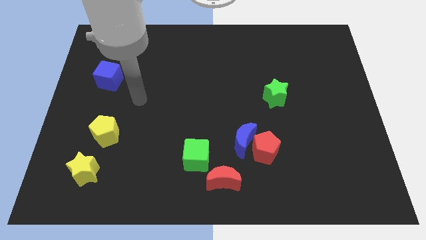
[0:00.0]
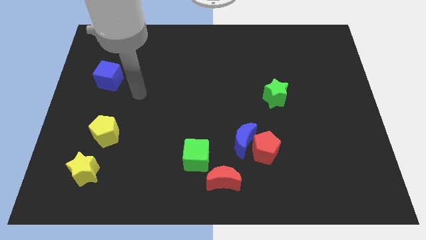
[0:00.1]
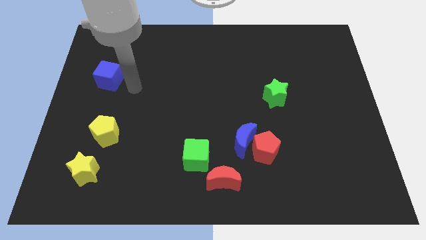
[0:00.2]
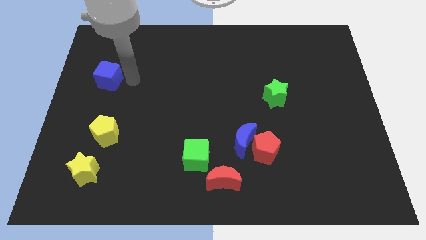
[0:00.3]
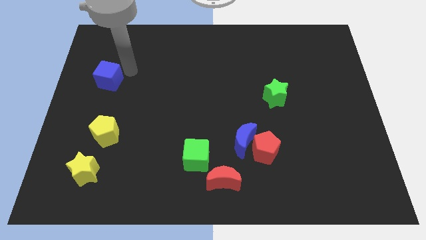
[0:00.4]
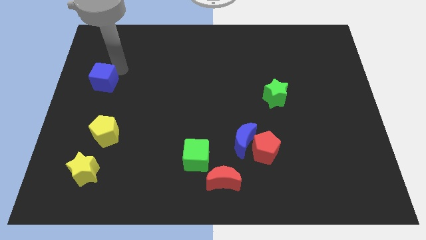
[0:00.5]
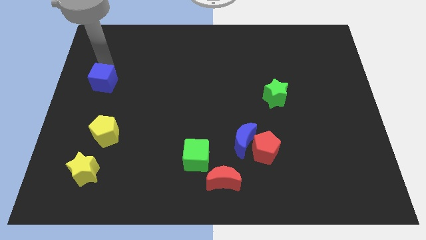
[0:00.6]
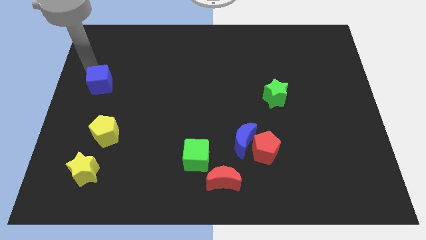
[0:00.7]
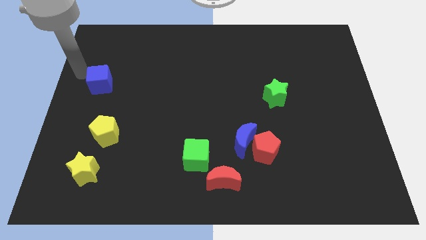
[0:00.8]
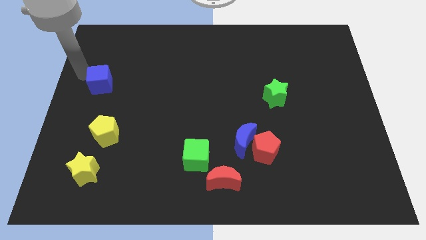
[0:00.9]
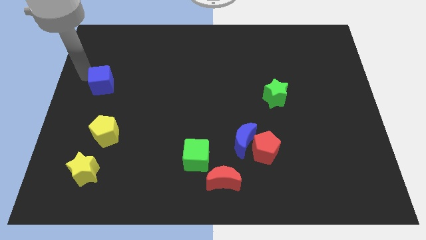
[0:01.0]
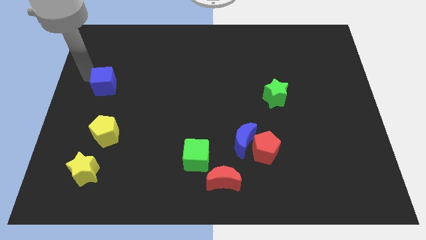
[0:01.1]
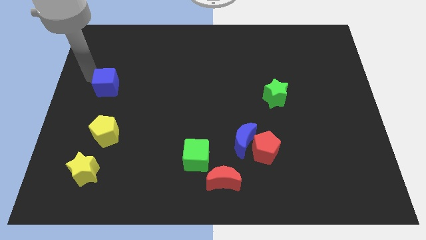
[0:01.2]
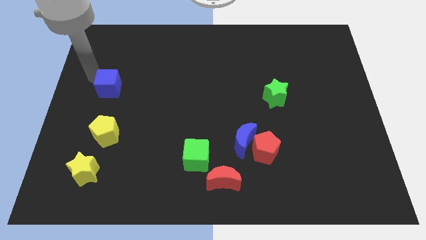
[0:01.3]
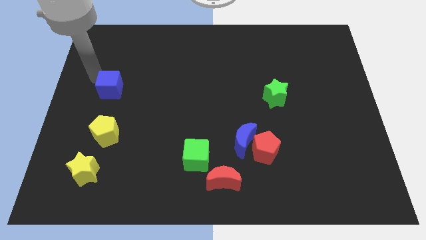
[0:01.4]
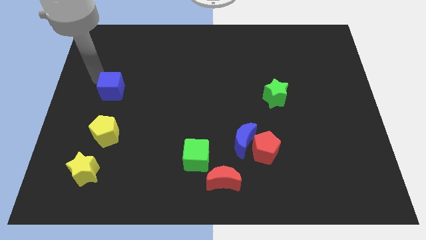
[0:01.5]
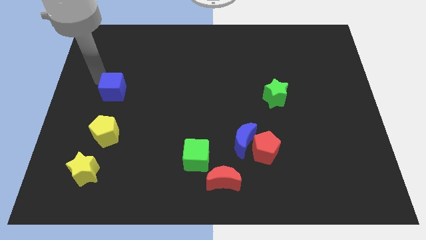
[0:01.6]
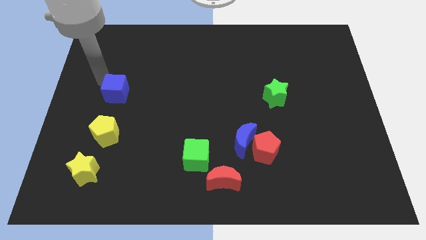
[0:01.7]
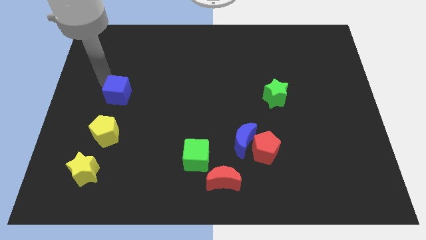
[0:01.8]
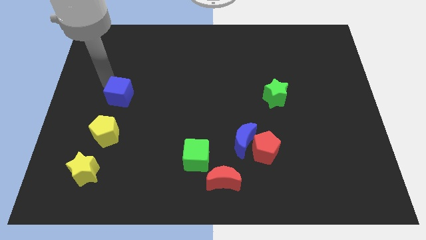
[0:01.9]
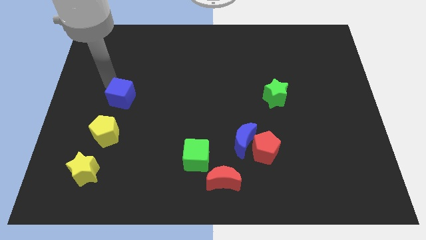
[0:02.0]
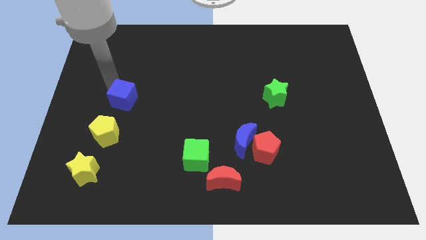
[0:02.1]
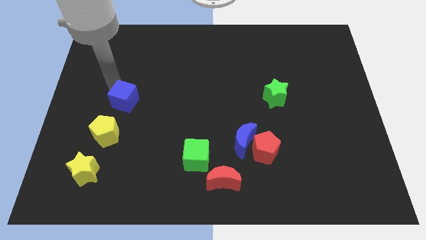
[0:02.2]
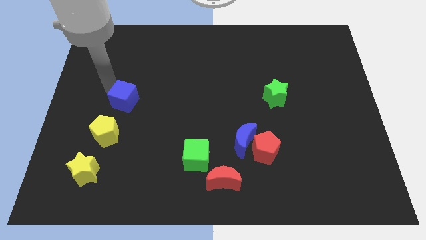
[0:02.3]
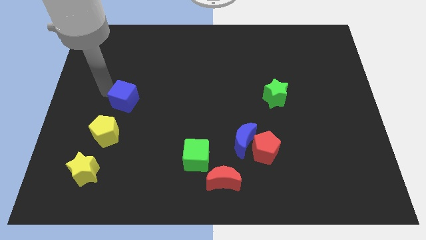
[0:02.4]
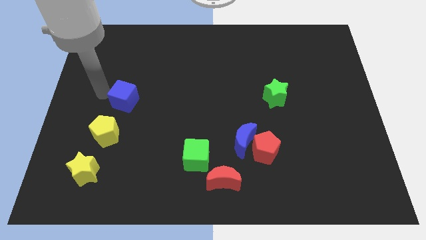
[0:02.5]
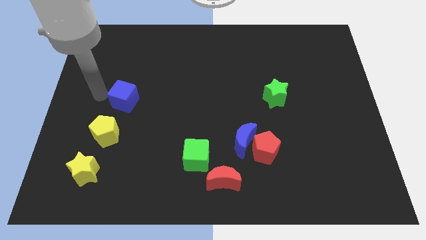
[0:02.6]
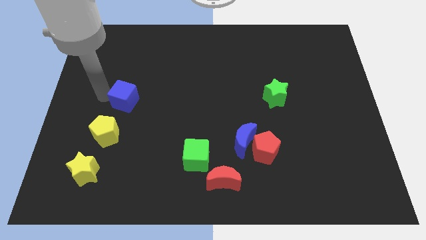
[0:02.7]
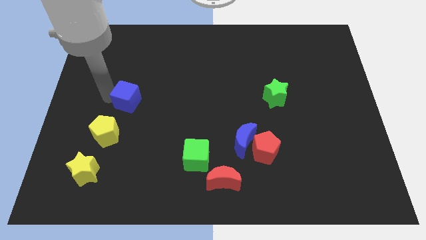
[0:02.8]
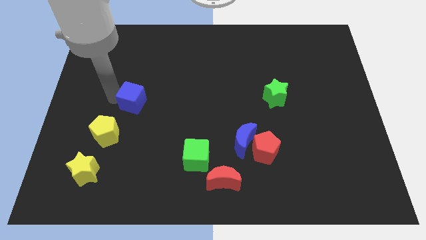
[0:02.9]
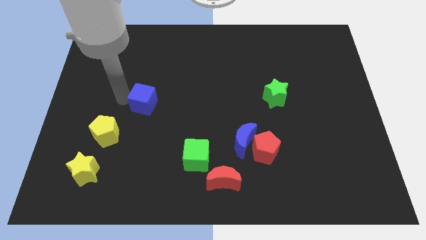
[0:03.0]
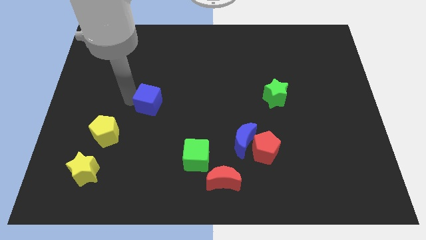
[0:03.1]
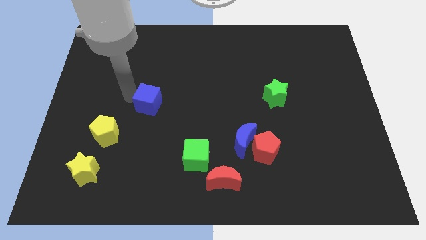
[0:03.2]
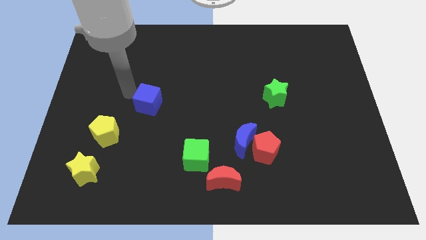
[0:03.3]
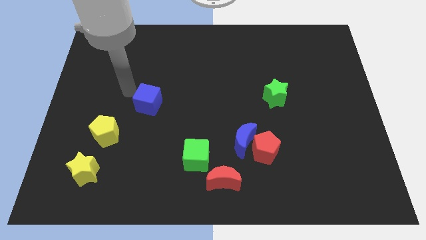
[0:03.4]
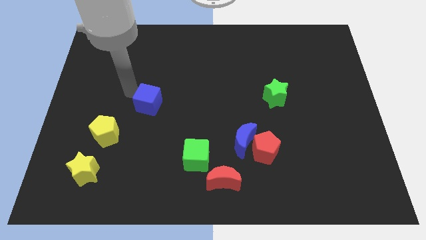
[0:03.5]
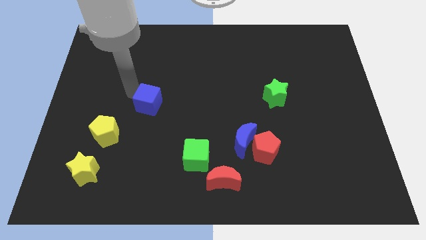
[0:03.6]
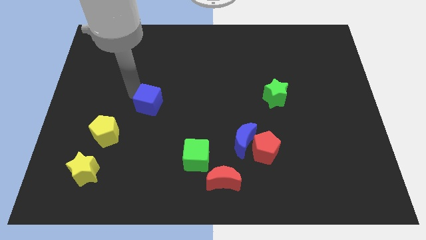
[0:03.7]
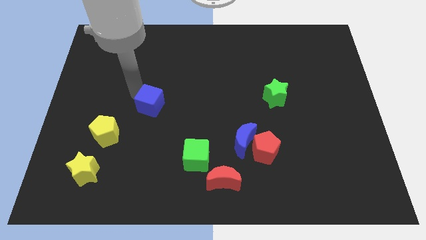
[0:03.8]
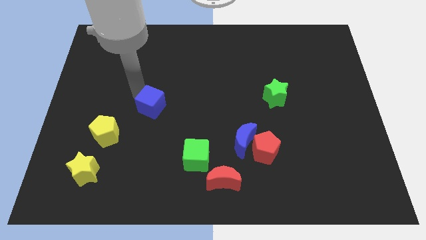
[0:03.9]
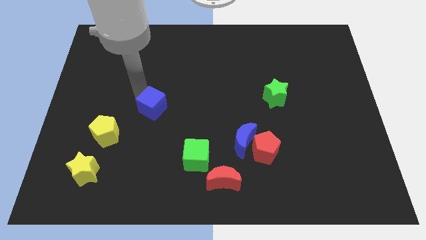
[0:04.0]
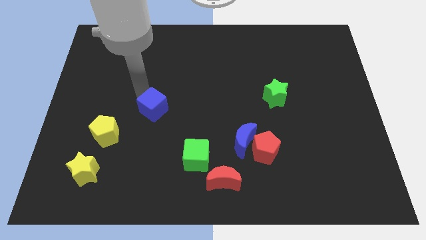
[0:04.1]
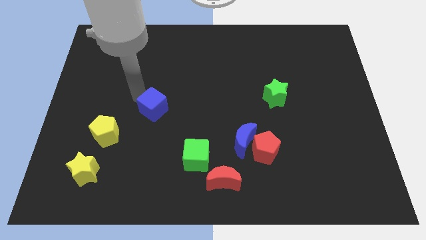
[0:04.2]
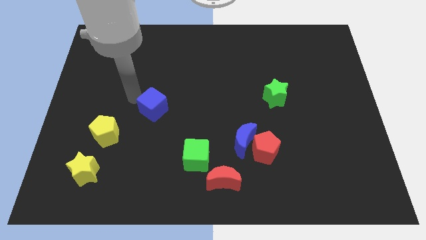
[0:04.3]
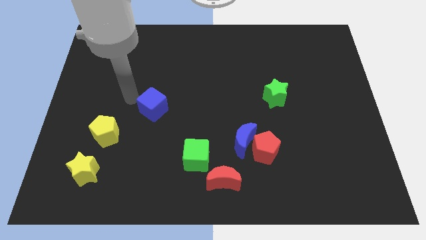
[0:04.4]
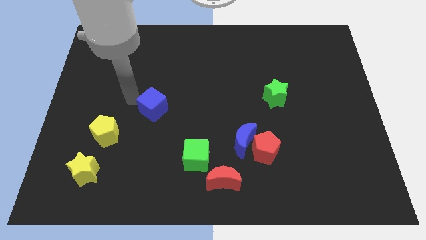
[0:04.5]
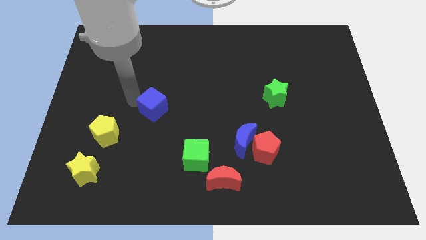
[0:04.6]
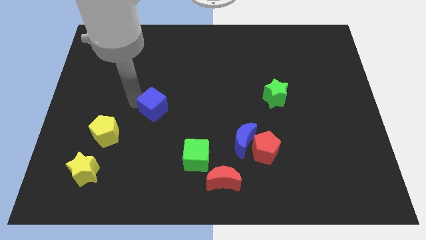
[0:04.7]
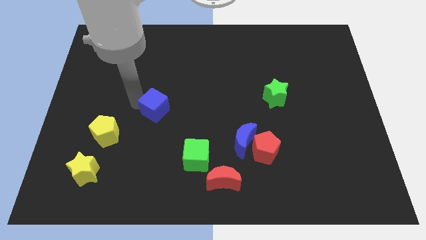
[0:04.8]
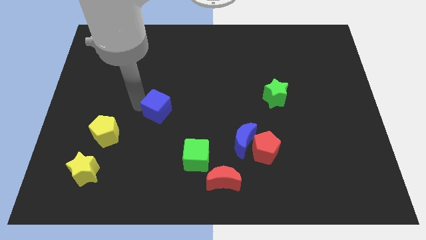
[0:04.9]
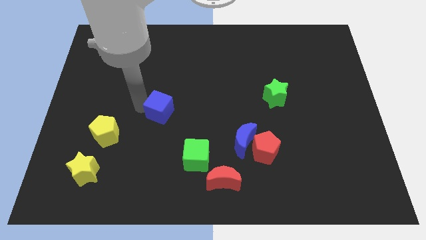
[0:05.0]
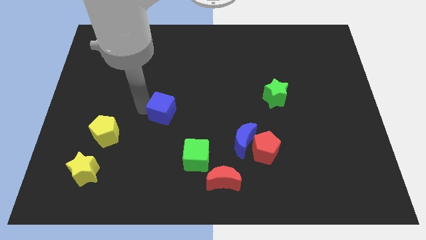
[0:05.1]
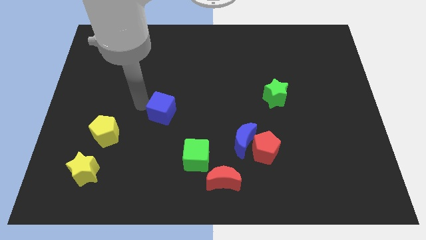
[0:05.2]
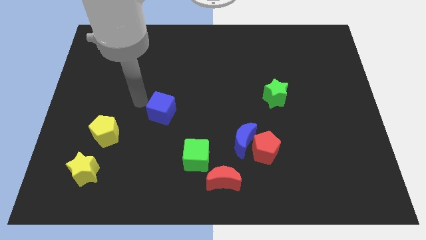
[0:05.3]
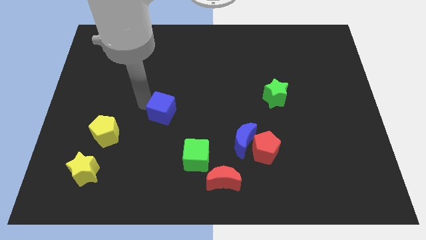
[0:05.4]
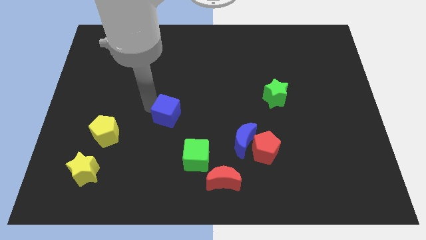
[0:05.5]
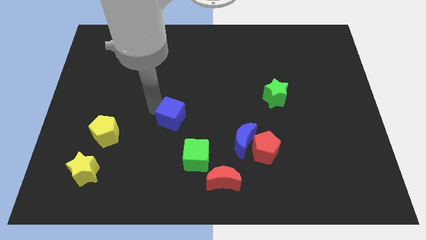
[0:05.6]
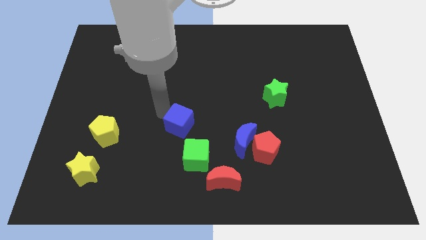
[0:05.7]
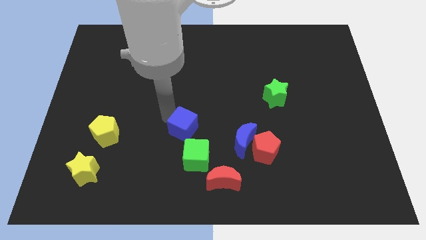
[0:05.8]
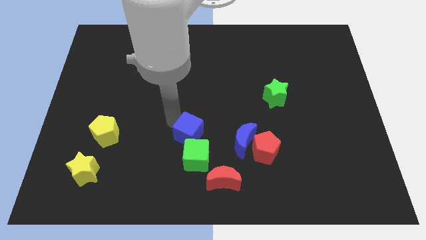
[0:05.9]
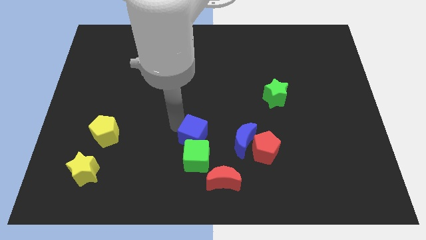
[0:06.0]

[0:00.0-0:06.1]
move the blue cube diagonally up and to the right of the green cube

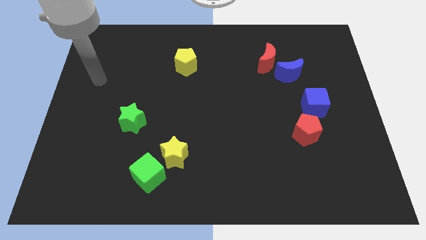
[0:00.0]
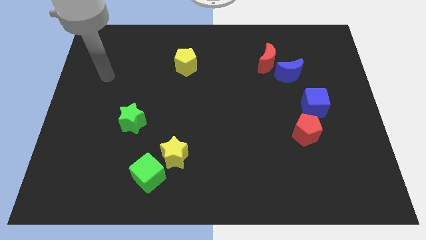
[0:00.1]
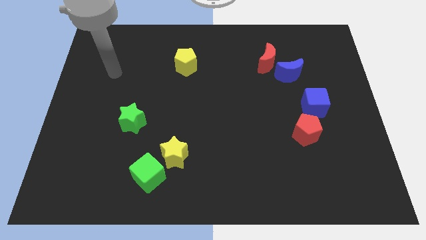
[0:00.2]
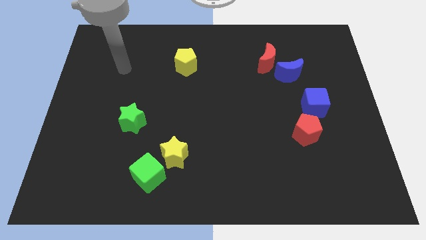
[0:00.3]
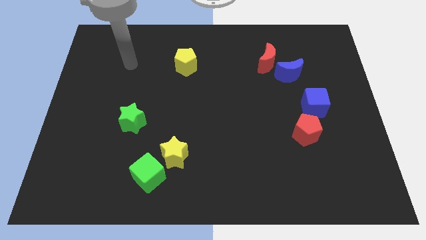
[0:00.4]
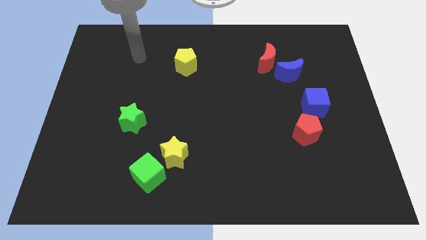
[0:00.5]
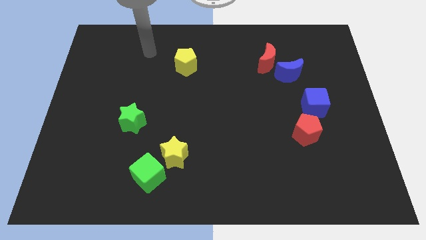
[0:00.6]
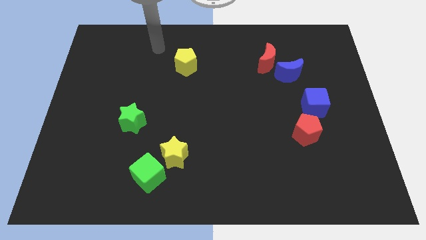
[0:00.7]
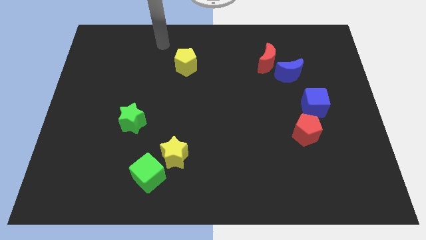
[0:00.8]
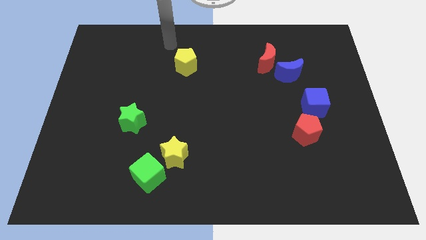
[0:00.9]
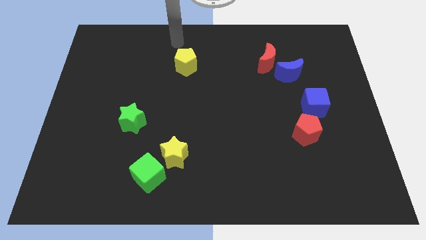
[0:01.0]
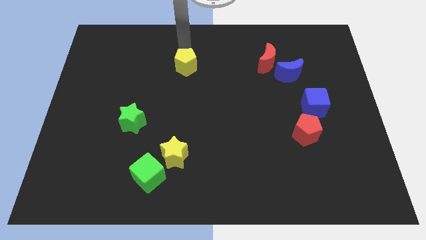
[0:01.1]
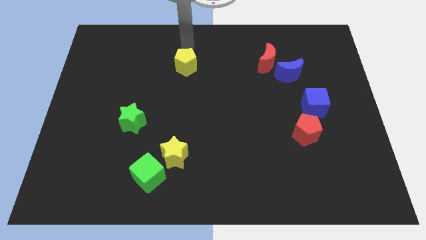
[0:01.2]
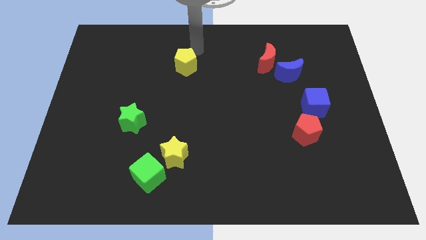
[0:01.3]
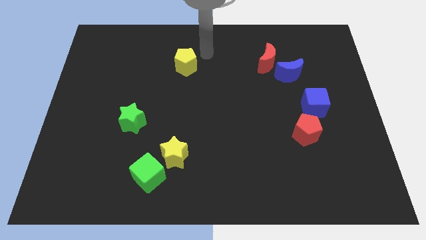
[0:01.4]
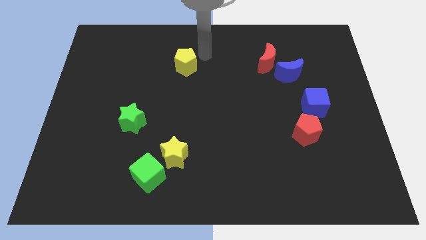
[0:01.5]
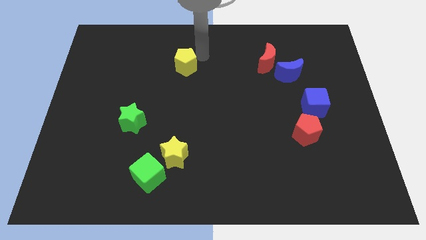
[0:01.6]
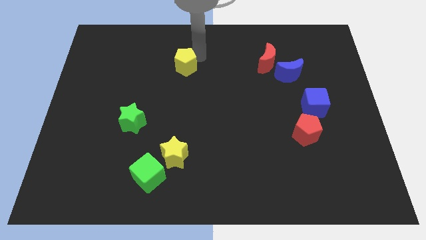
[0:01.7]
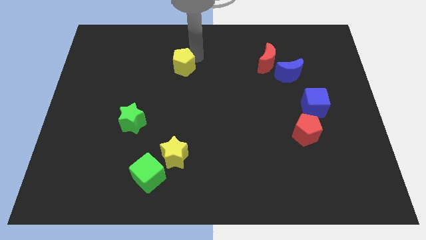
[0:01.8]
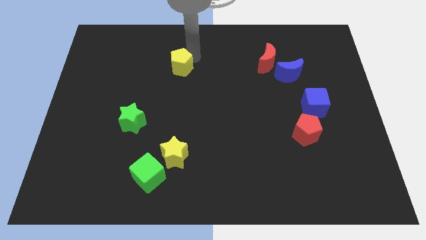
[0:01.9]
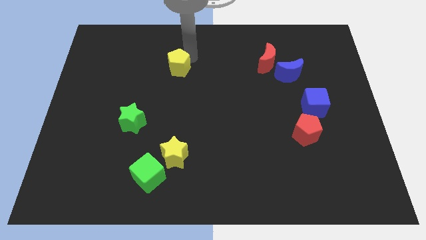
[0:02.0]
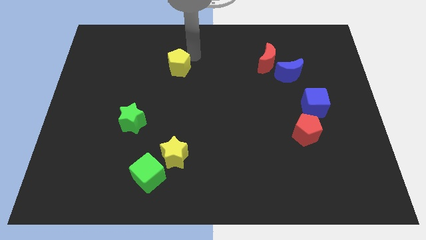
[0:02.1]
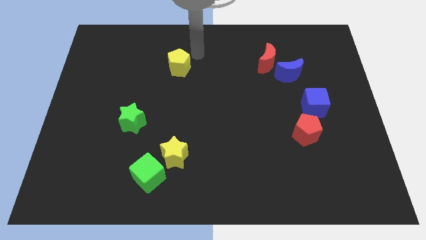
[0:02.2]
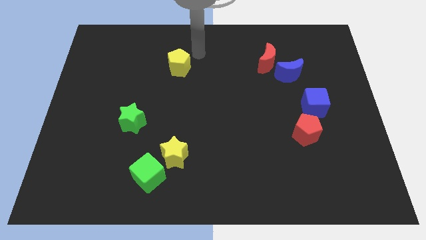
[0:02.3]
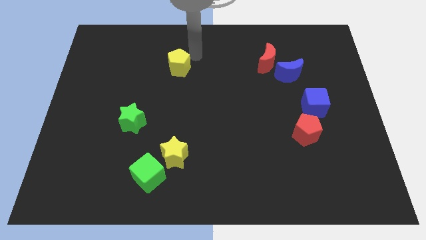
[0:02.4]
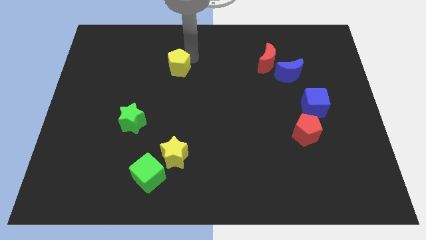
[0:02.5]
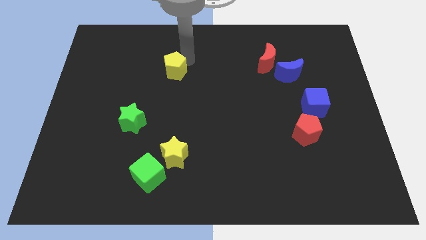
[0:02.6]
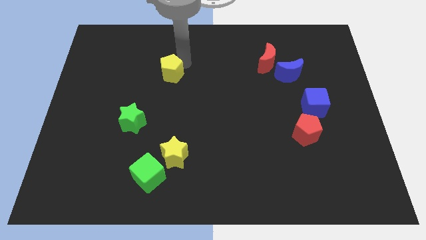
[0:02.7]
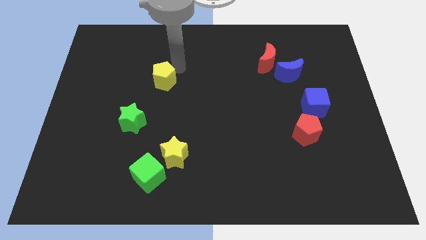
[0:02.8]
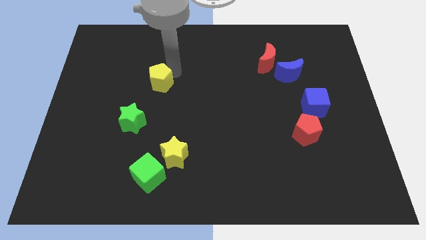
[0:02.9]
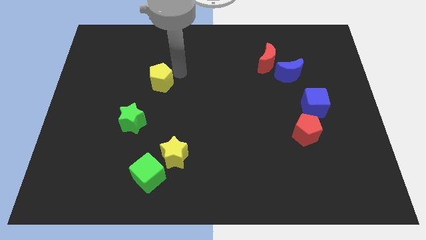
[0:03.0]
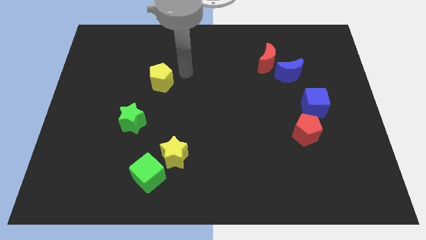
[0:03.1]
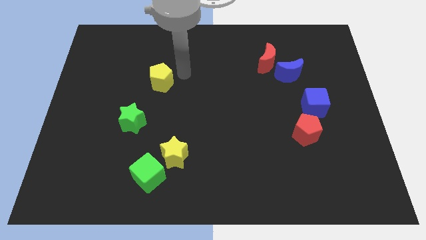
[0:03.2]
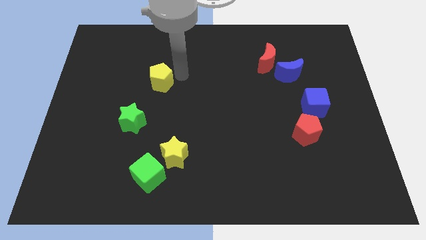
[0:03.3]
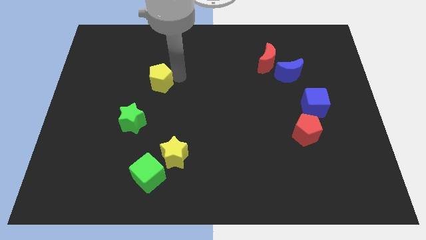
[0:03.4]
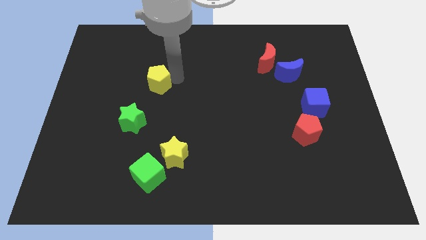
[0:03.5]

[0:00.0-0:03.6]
move the yellow pentagon above the green star
